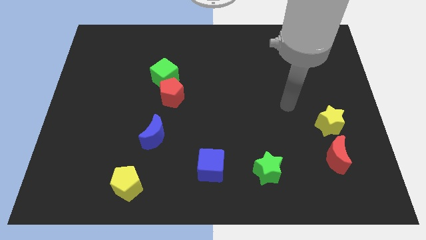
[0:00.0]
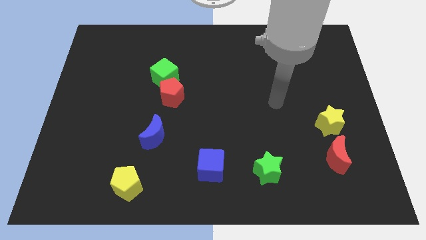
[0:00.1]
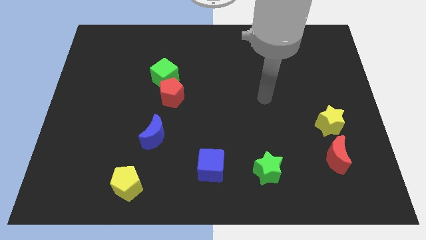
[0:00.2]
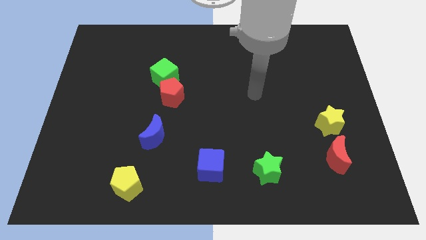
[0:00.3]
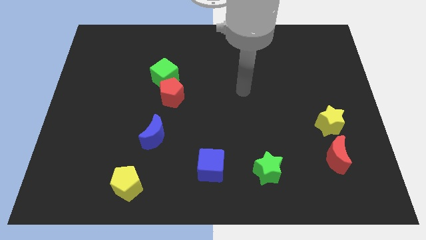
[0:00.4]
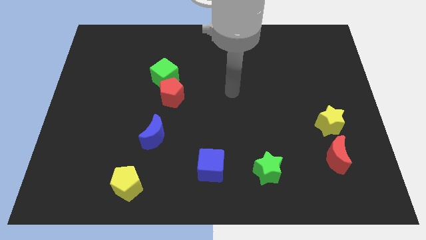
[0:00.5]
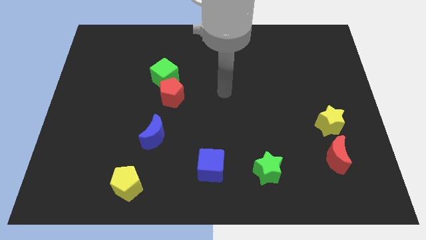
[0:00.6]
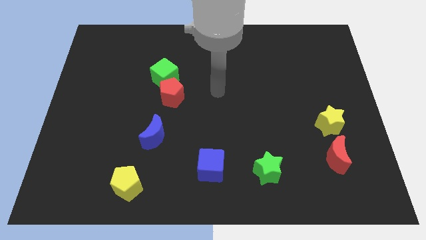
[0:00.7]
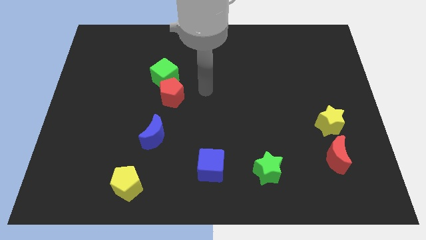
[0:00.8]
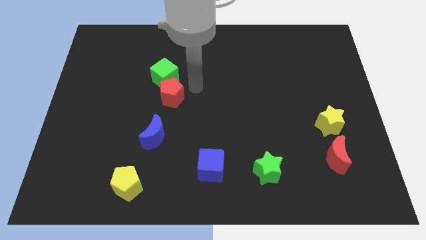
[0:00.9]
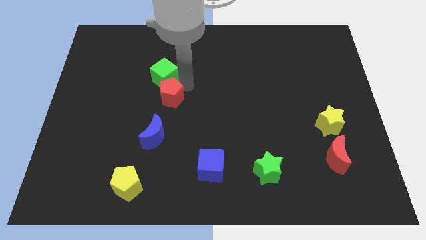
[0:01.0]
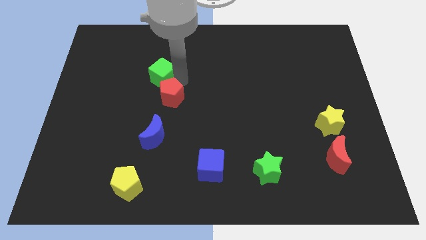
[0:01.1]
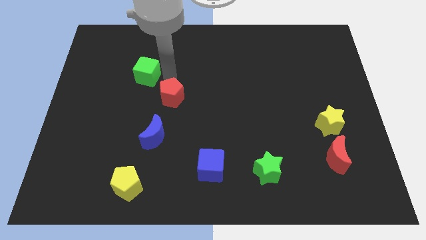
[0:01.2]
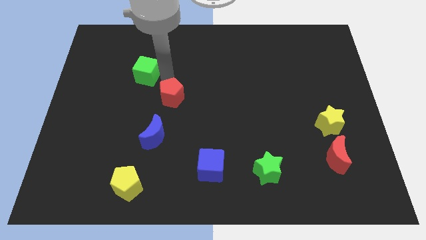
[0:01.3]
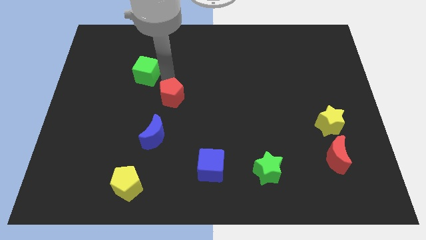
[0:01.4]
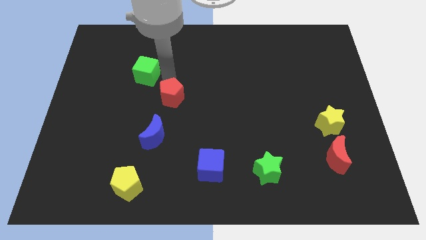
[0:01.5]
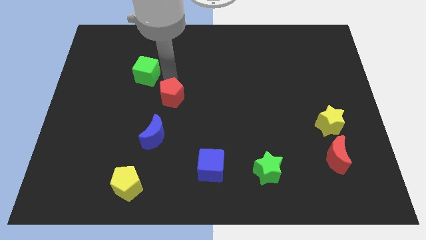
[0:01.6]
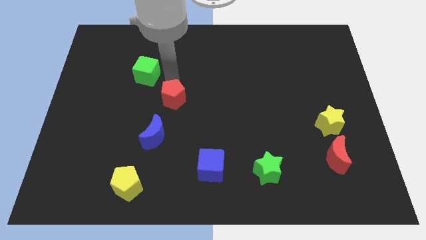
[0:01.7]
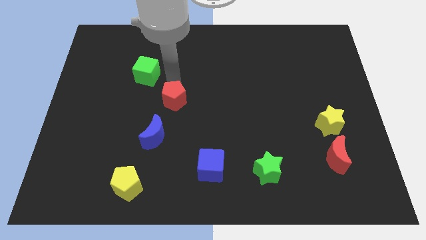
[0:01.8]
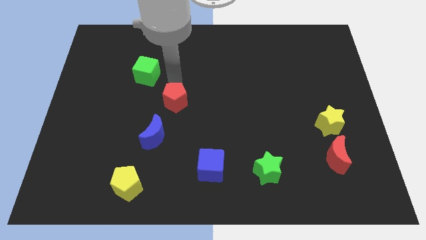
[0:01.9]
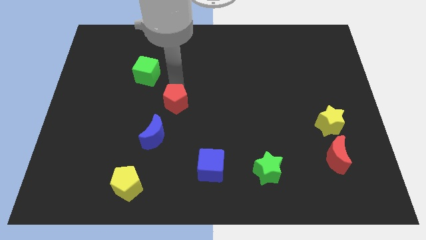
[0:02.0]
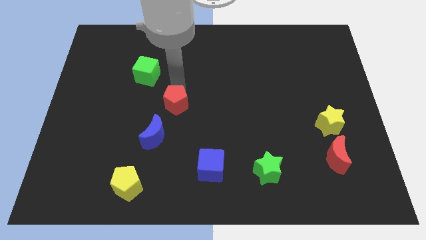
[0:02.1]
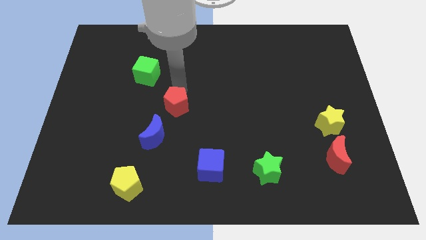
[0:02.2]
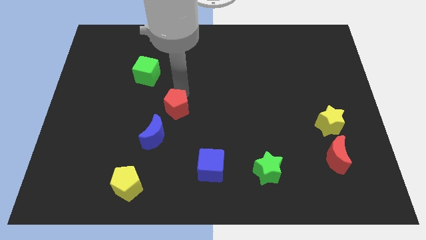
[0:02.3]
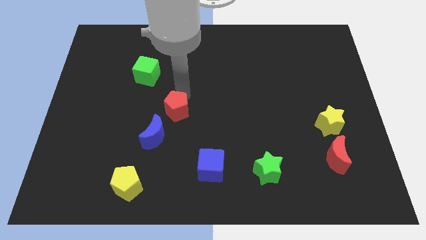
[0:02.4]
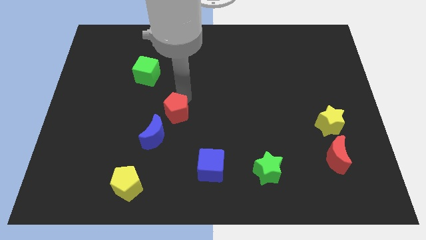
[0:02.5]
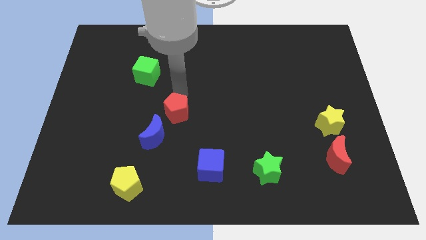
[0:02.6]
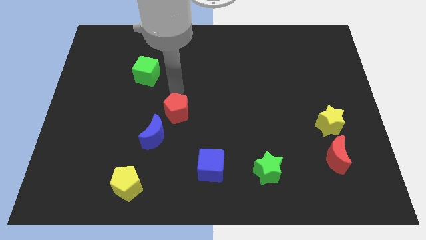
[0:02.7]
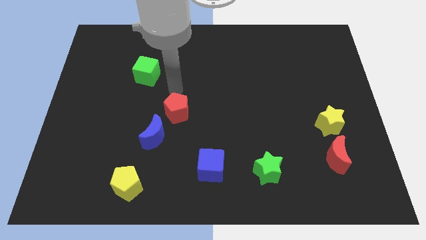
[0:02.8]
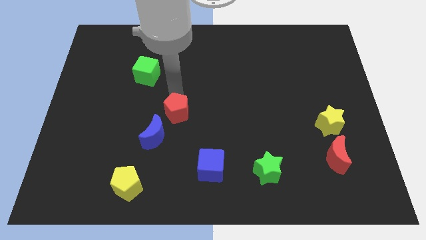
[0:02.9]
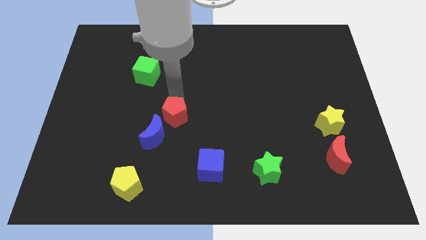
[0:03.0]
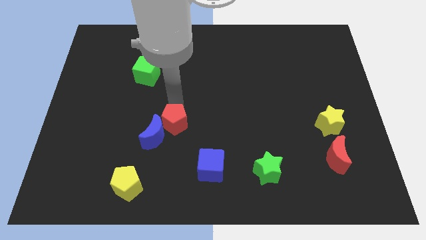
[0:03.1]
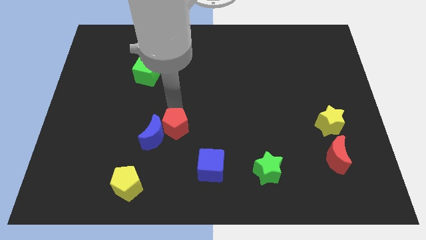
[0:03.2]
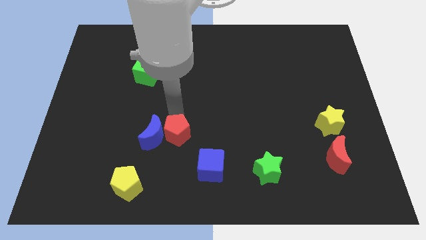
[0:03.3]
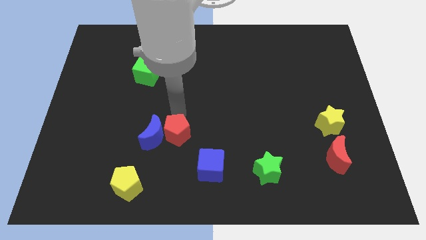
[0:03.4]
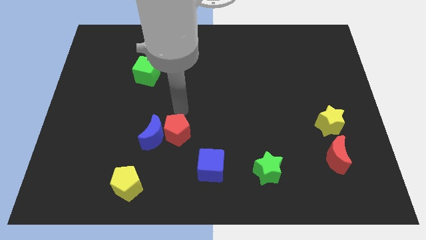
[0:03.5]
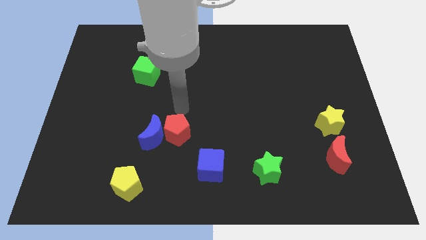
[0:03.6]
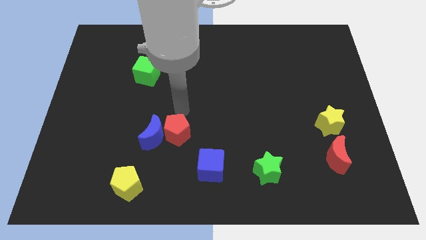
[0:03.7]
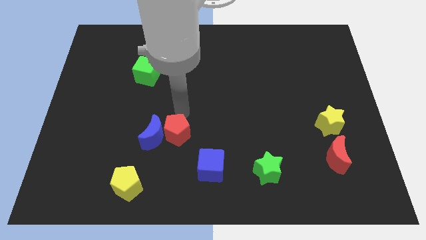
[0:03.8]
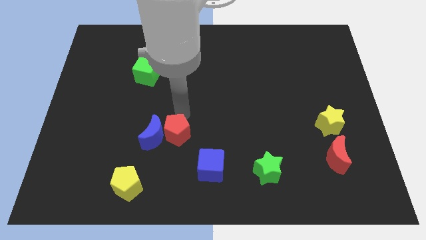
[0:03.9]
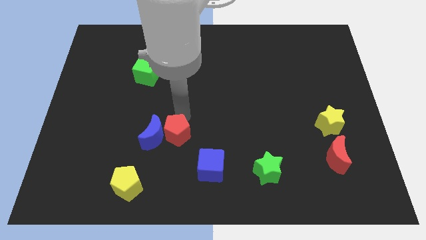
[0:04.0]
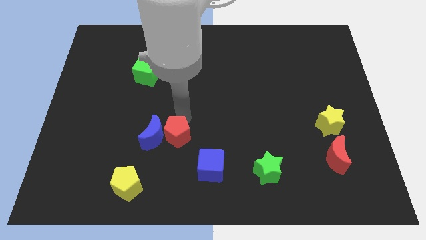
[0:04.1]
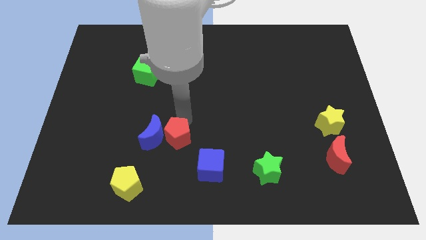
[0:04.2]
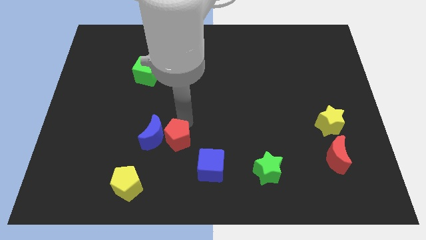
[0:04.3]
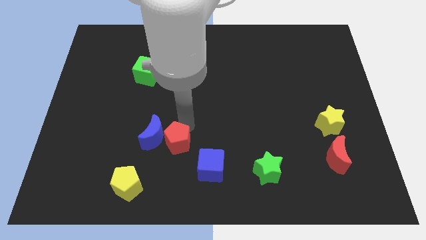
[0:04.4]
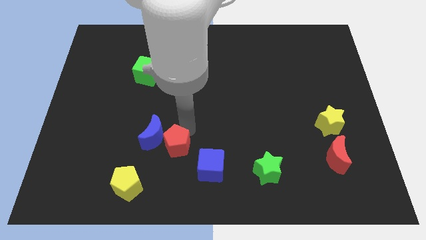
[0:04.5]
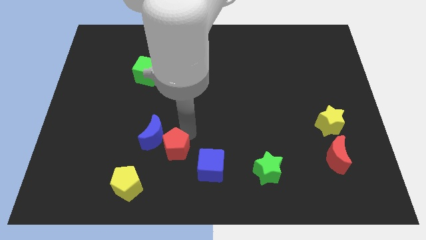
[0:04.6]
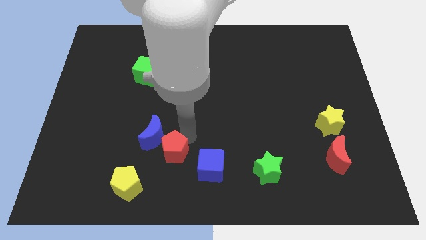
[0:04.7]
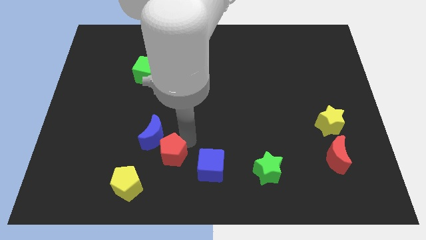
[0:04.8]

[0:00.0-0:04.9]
put the red pentagon to the bottom of the blue moon

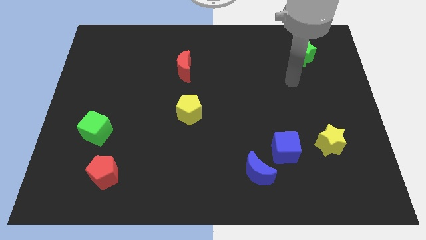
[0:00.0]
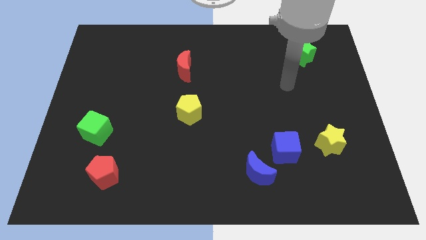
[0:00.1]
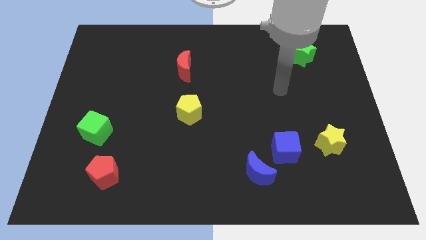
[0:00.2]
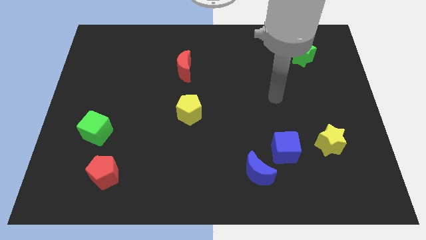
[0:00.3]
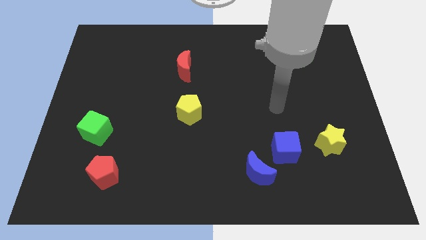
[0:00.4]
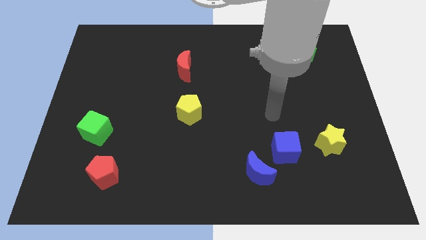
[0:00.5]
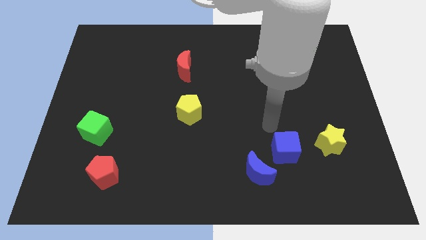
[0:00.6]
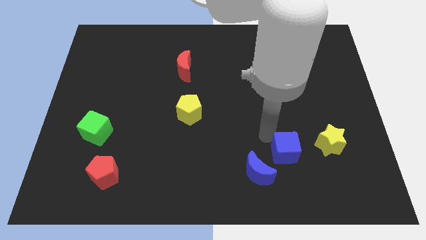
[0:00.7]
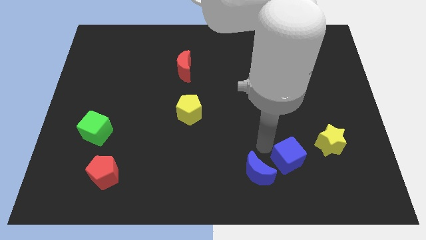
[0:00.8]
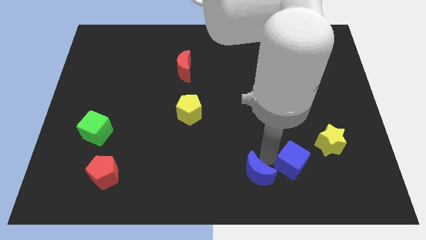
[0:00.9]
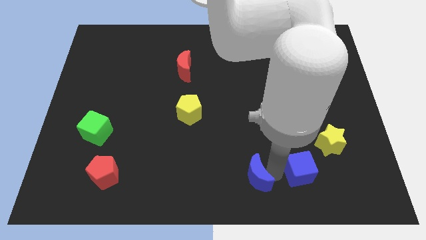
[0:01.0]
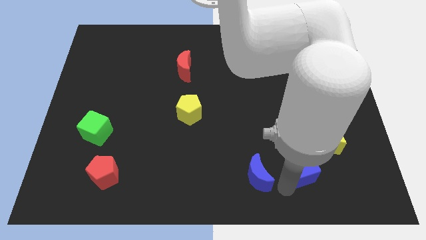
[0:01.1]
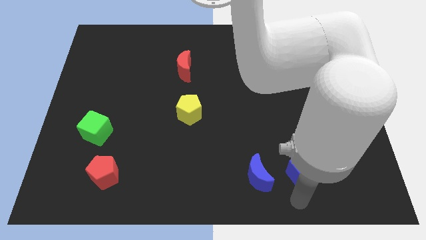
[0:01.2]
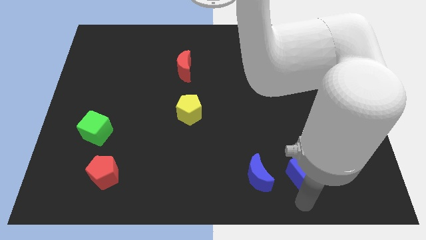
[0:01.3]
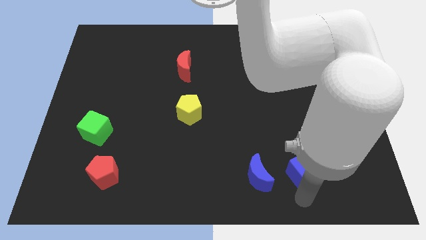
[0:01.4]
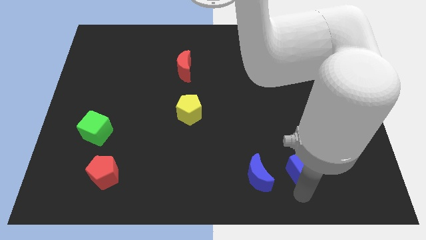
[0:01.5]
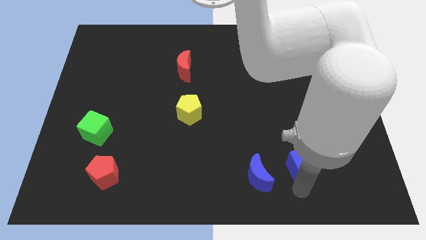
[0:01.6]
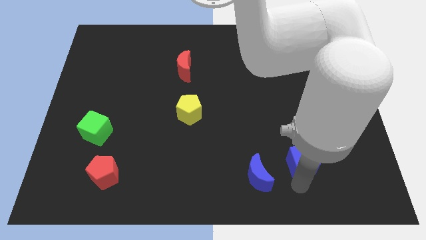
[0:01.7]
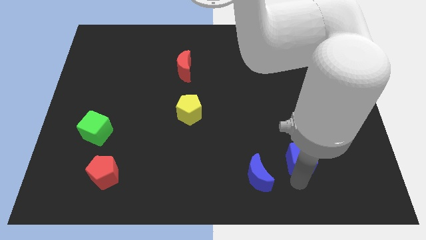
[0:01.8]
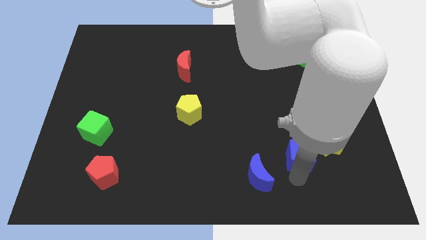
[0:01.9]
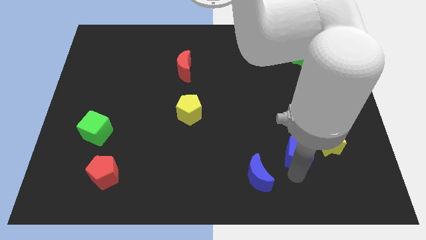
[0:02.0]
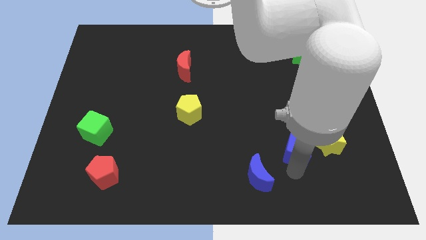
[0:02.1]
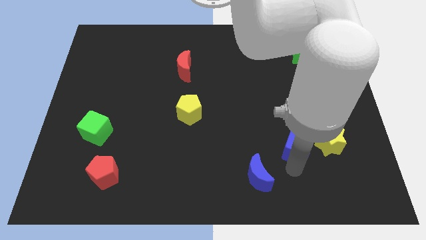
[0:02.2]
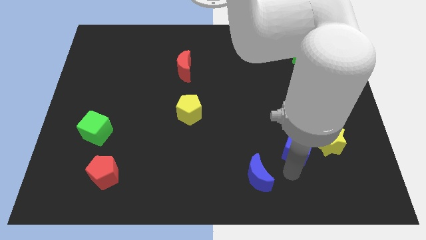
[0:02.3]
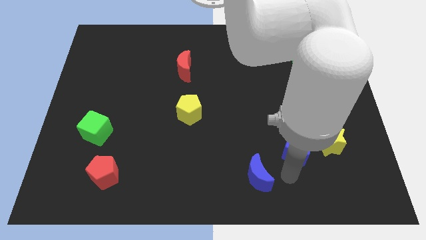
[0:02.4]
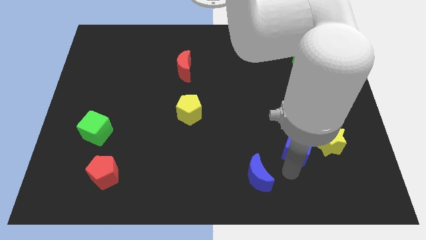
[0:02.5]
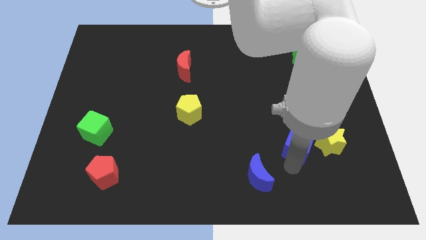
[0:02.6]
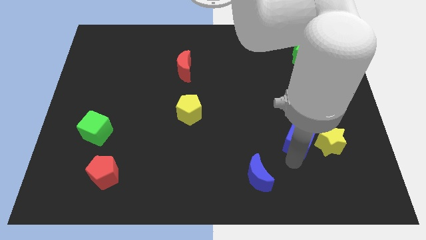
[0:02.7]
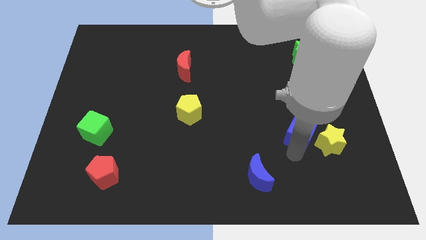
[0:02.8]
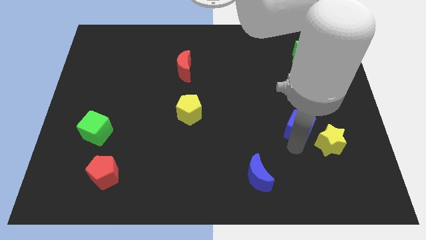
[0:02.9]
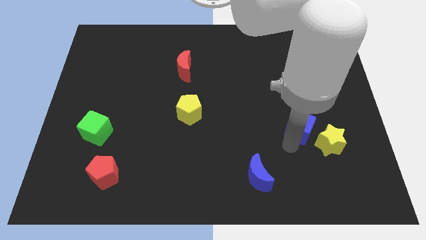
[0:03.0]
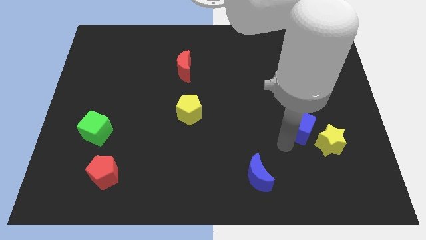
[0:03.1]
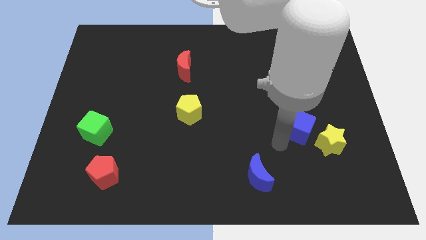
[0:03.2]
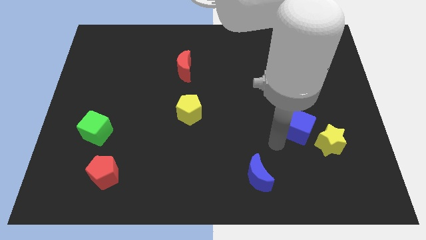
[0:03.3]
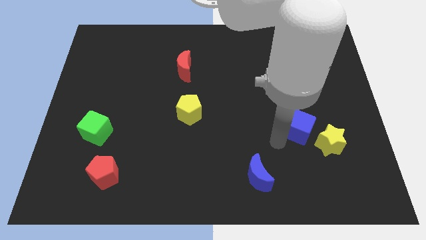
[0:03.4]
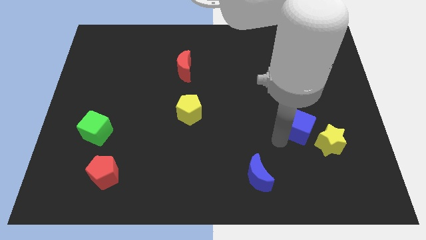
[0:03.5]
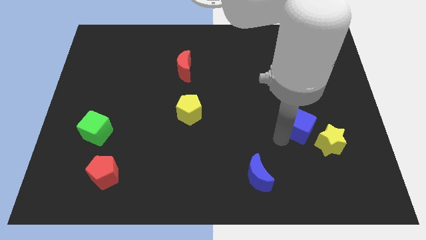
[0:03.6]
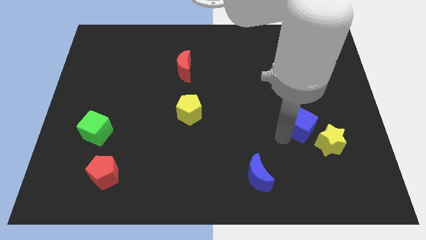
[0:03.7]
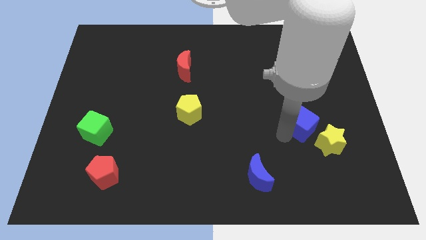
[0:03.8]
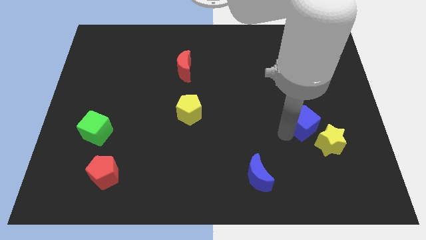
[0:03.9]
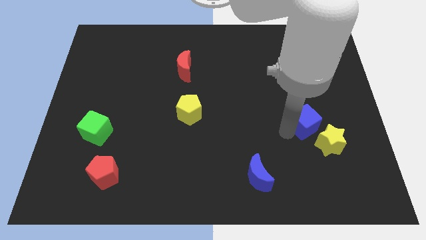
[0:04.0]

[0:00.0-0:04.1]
put the blue cube above the yellow star
